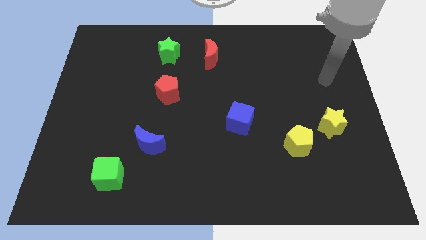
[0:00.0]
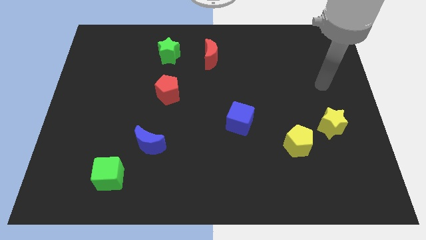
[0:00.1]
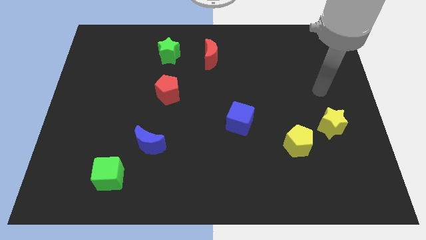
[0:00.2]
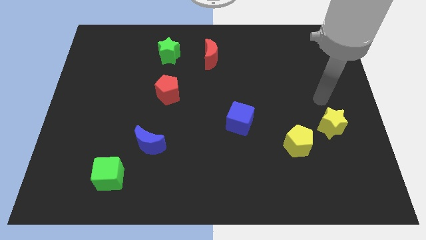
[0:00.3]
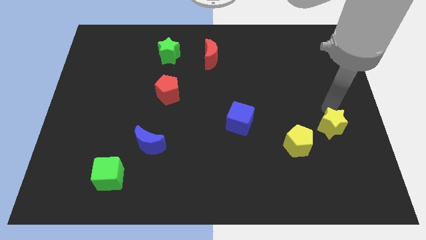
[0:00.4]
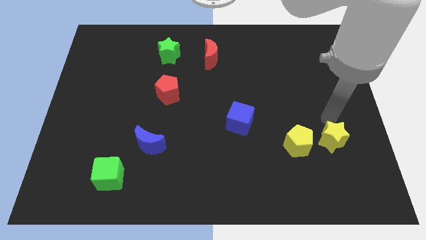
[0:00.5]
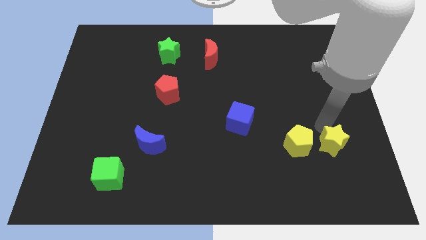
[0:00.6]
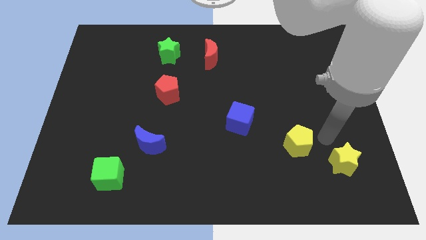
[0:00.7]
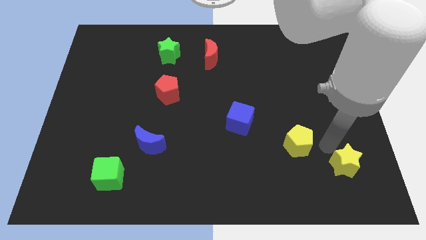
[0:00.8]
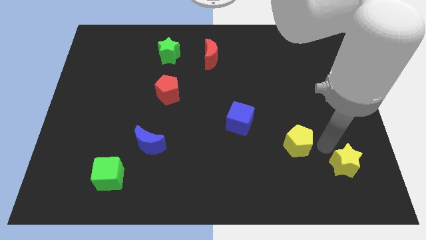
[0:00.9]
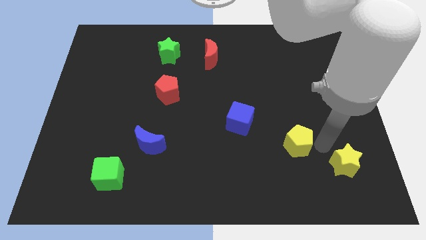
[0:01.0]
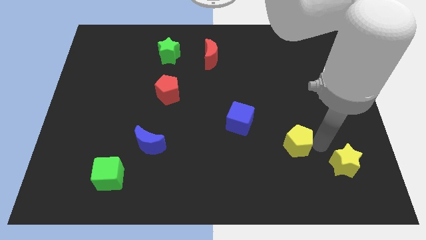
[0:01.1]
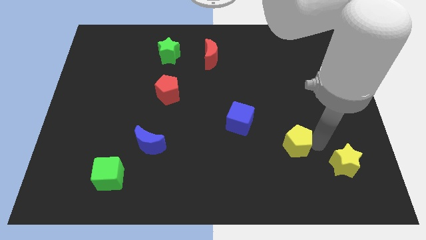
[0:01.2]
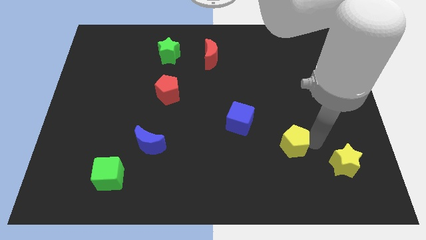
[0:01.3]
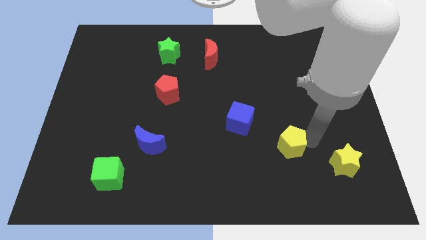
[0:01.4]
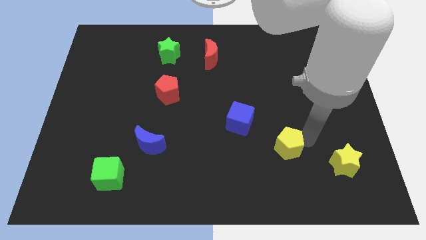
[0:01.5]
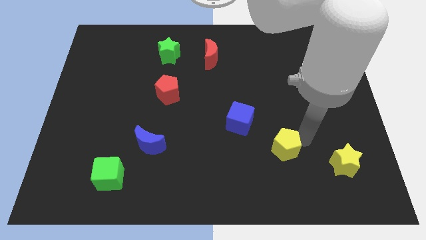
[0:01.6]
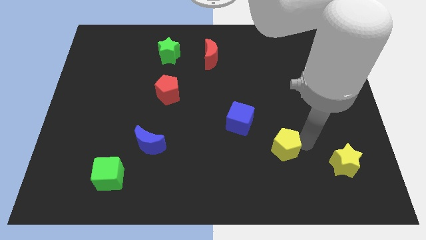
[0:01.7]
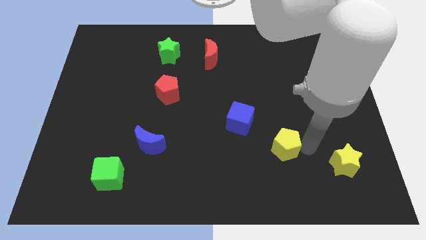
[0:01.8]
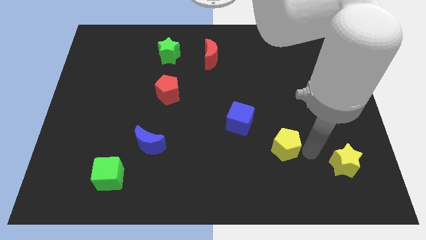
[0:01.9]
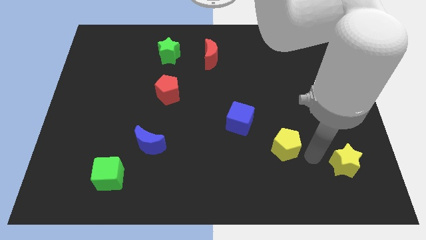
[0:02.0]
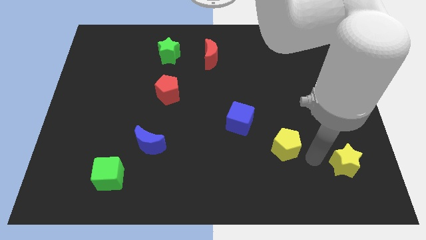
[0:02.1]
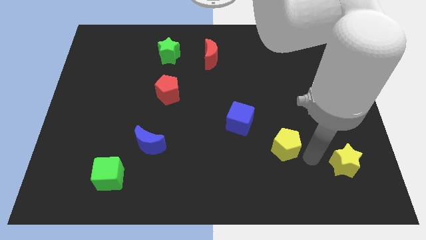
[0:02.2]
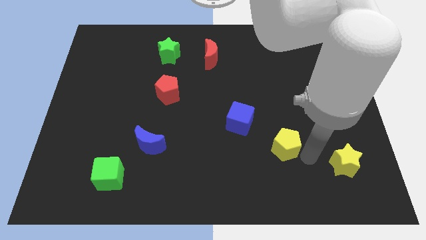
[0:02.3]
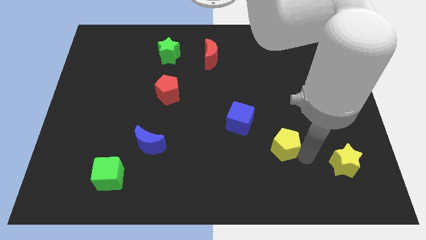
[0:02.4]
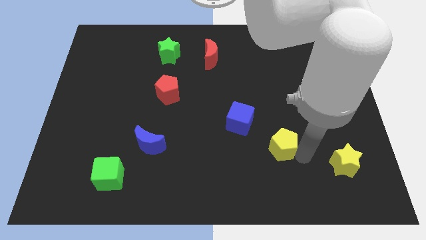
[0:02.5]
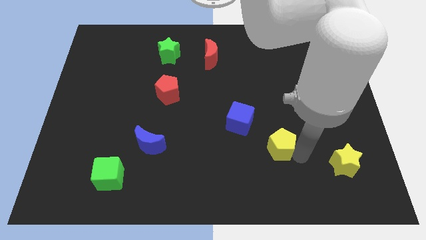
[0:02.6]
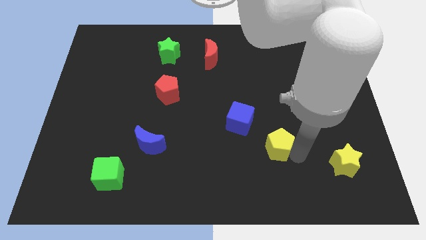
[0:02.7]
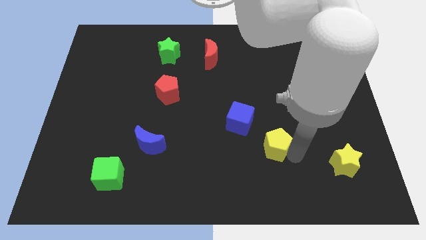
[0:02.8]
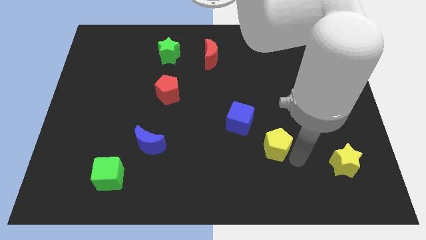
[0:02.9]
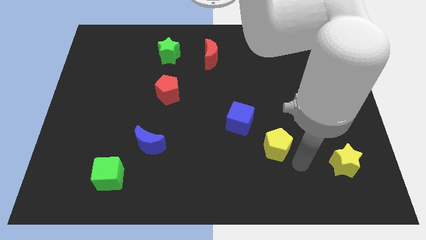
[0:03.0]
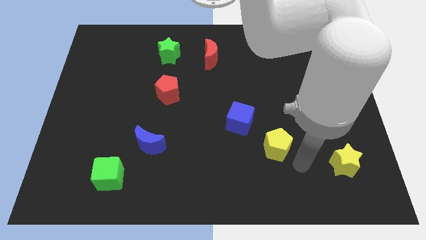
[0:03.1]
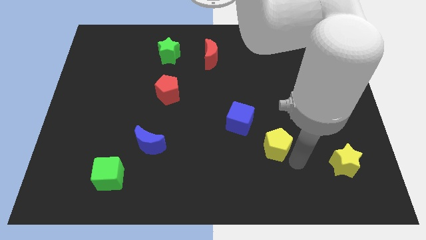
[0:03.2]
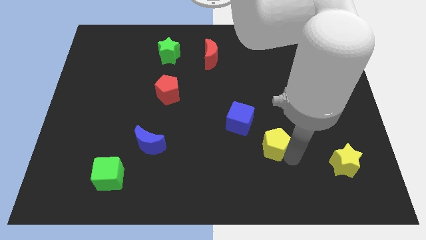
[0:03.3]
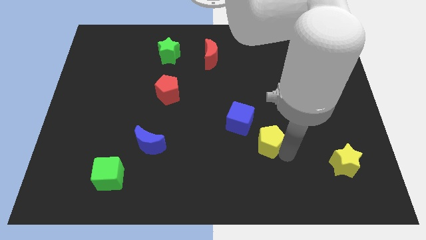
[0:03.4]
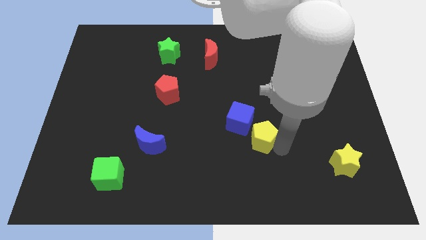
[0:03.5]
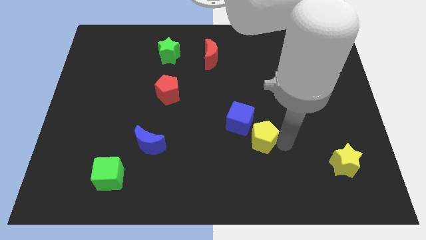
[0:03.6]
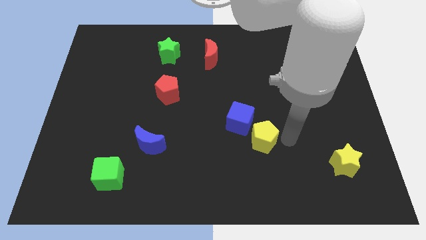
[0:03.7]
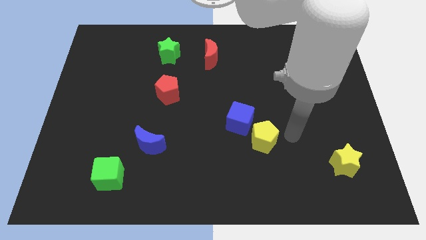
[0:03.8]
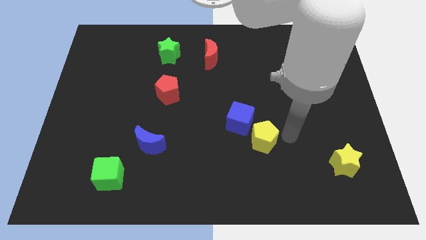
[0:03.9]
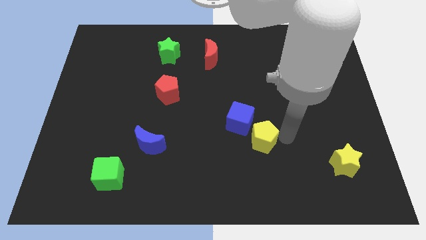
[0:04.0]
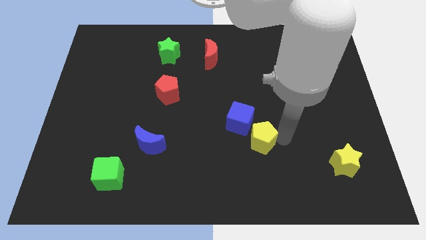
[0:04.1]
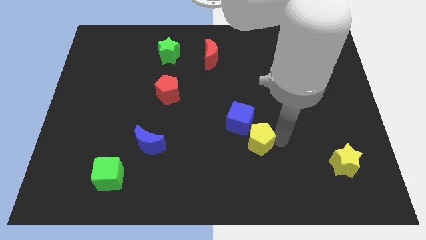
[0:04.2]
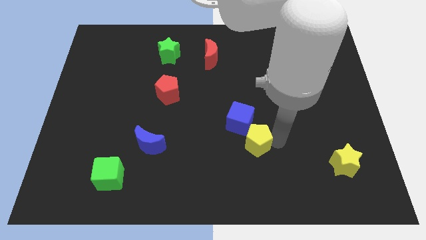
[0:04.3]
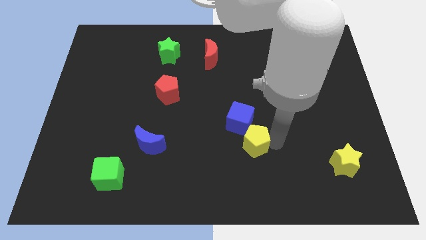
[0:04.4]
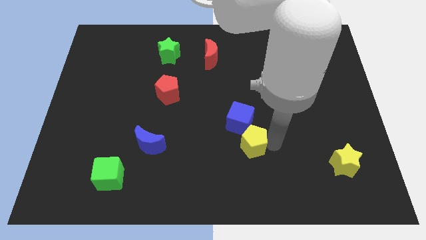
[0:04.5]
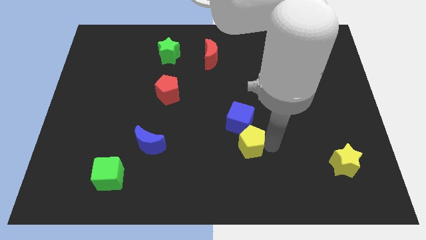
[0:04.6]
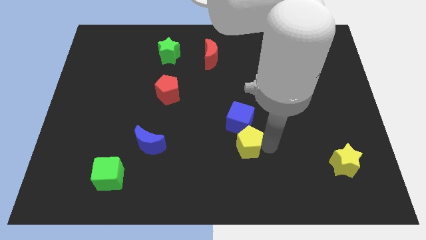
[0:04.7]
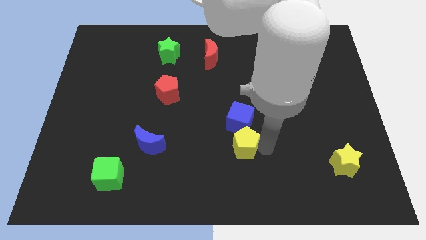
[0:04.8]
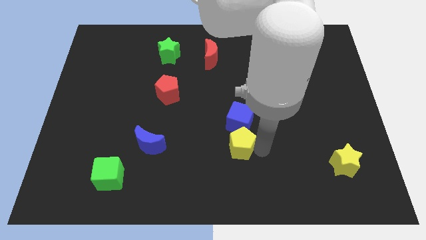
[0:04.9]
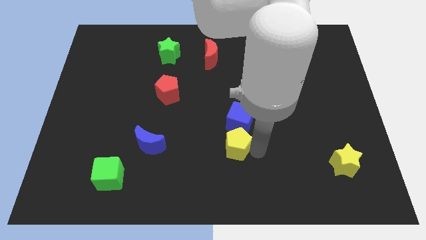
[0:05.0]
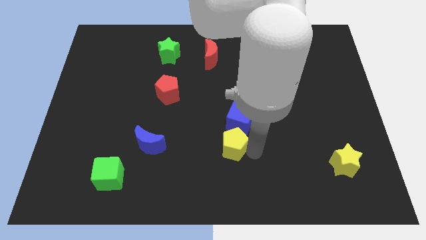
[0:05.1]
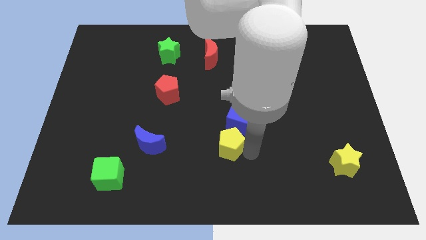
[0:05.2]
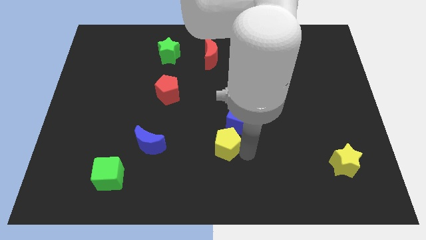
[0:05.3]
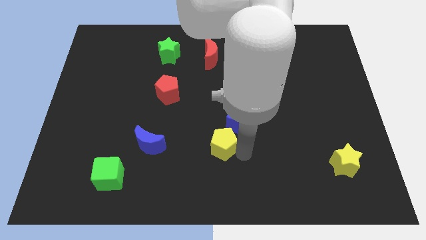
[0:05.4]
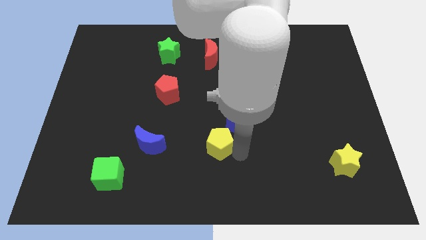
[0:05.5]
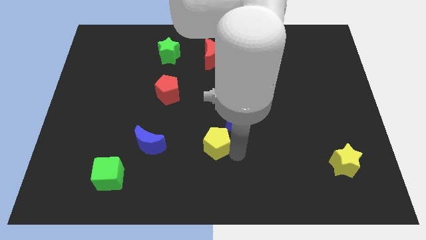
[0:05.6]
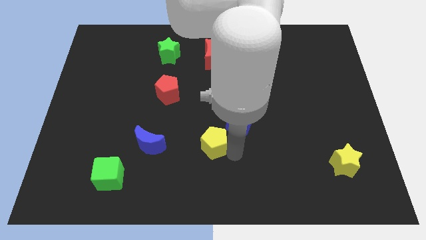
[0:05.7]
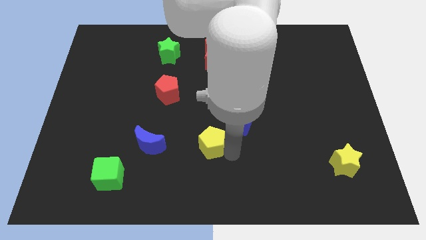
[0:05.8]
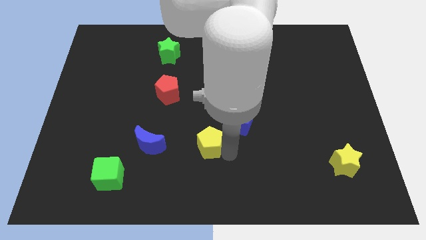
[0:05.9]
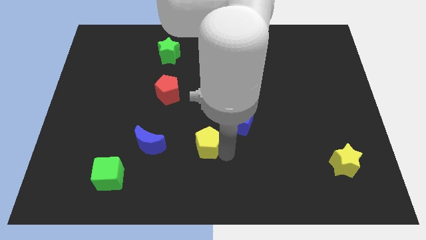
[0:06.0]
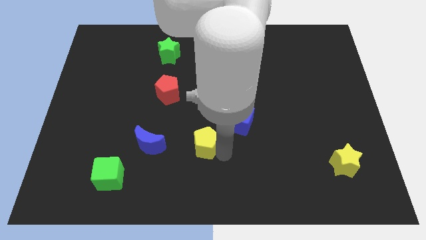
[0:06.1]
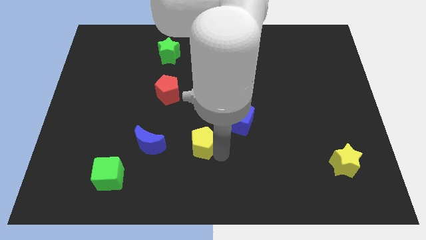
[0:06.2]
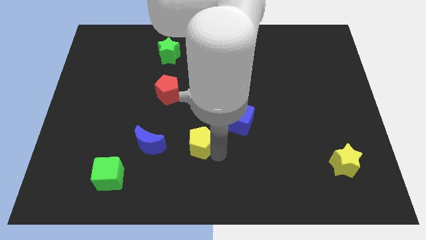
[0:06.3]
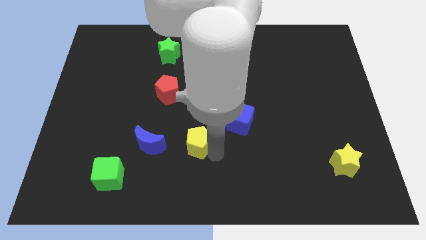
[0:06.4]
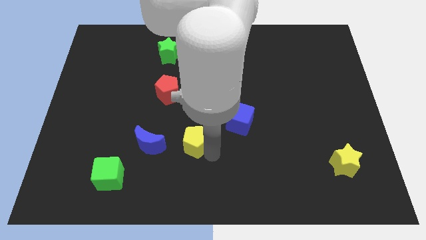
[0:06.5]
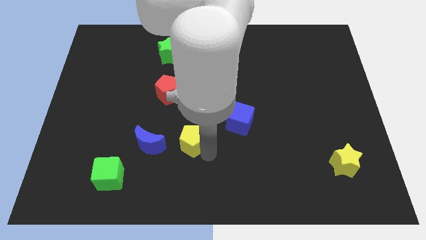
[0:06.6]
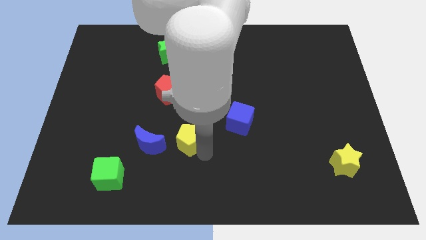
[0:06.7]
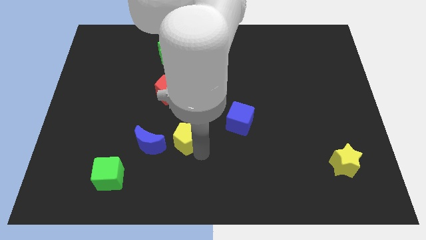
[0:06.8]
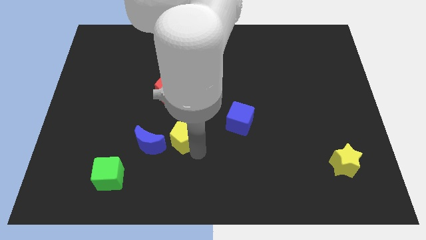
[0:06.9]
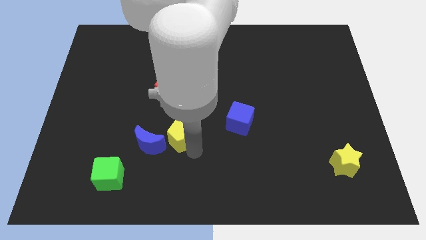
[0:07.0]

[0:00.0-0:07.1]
push the yellow pentagon to the left side of the blue cube

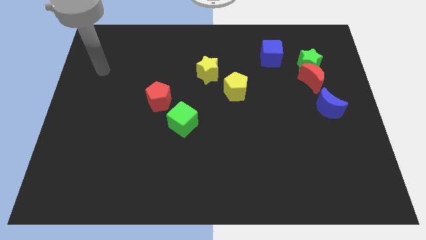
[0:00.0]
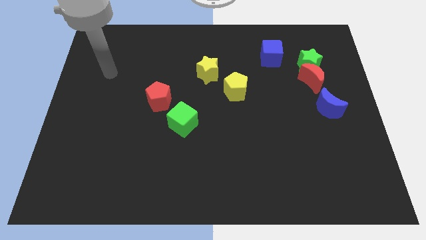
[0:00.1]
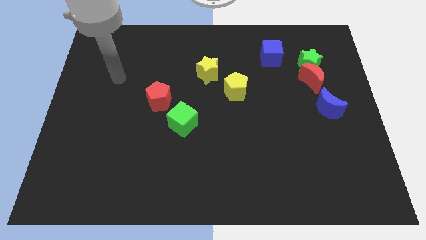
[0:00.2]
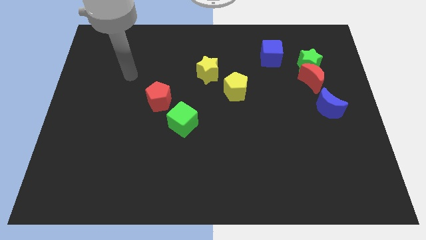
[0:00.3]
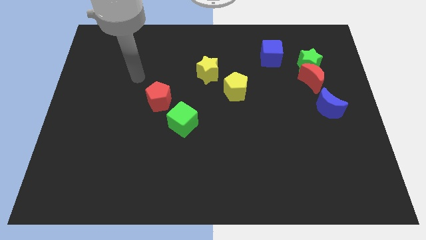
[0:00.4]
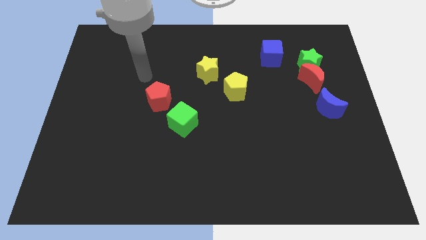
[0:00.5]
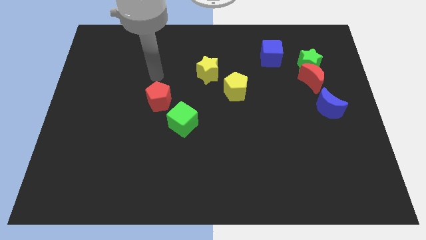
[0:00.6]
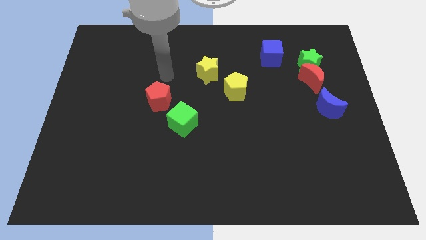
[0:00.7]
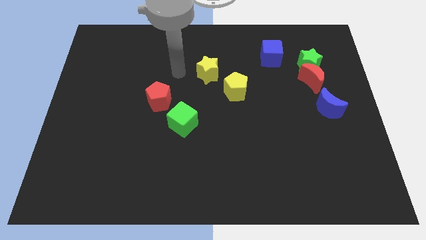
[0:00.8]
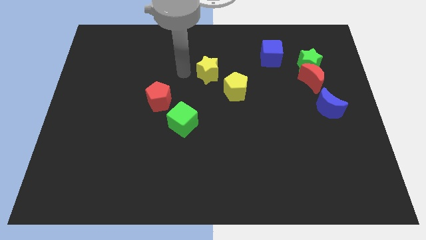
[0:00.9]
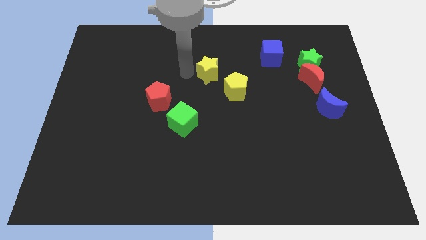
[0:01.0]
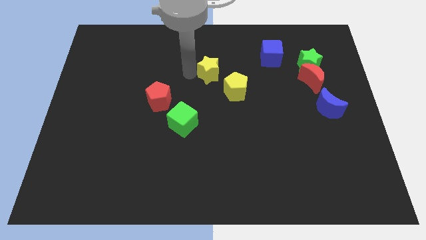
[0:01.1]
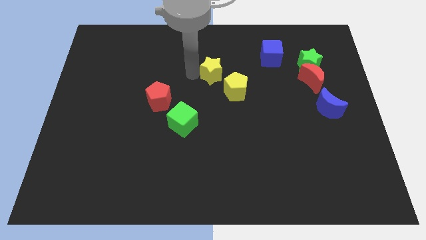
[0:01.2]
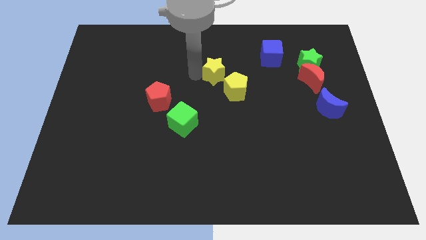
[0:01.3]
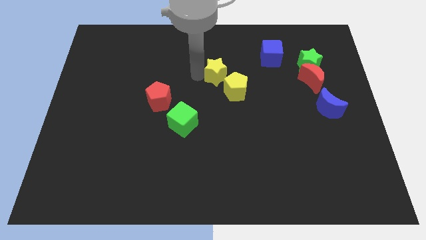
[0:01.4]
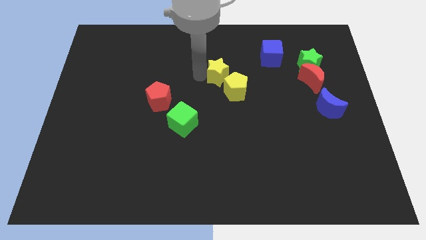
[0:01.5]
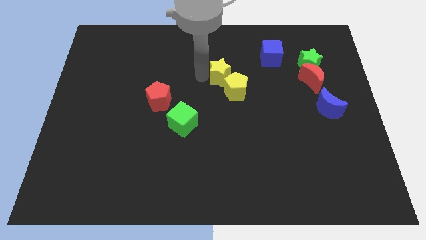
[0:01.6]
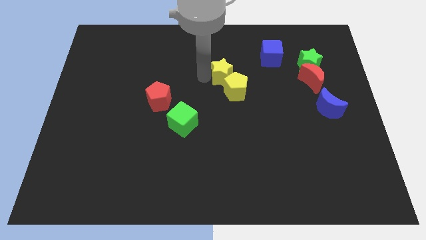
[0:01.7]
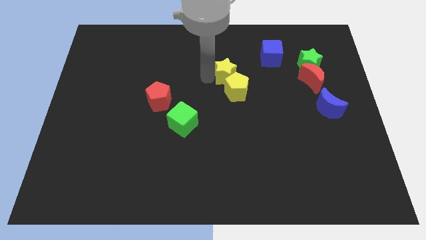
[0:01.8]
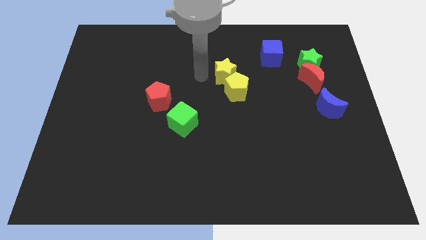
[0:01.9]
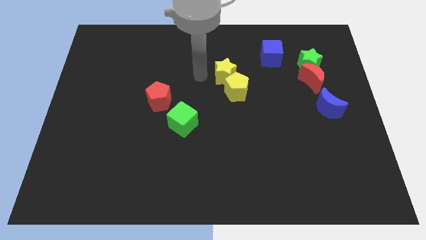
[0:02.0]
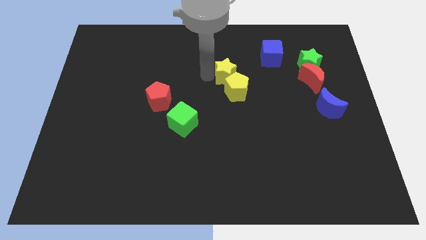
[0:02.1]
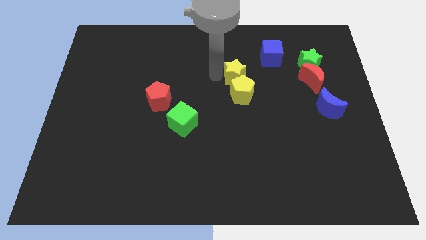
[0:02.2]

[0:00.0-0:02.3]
put the yellow star diagonally up and to the right of the yellow pentagon
